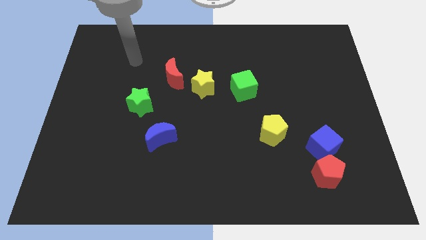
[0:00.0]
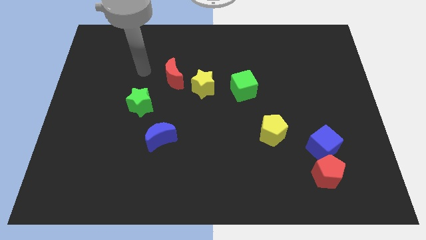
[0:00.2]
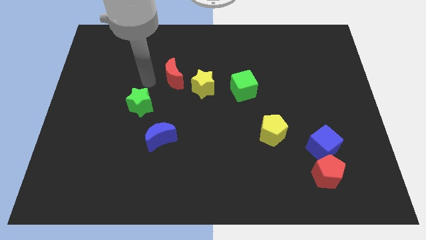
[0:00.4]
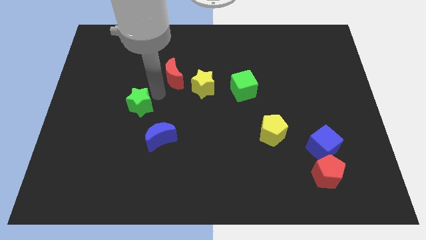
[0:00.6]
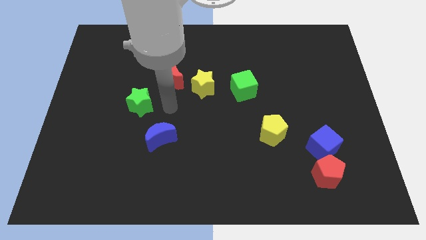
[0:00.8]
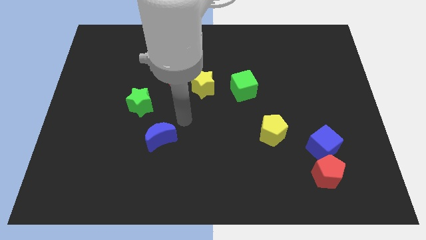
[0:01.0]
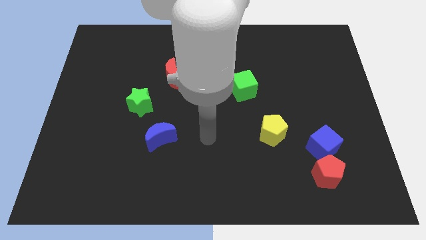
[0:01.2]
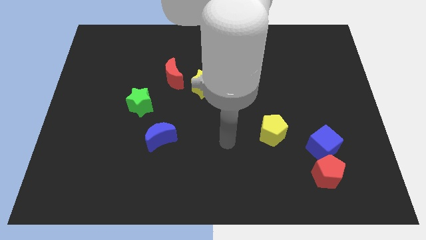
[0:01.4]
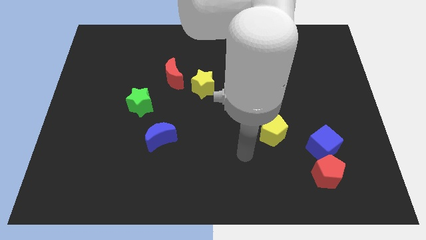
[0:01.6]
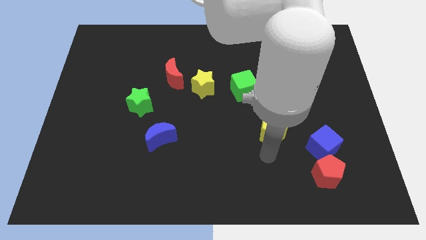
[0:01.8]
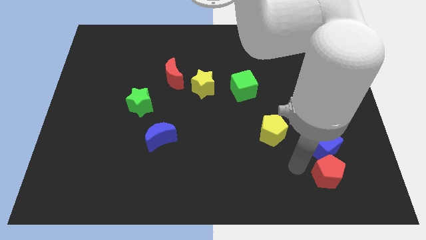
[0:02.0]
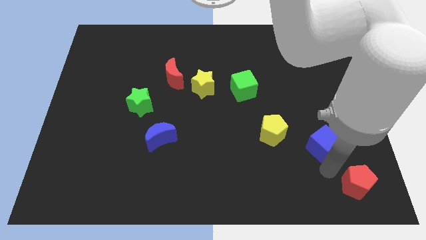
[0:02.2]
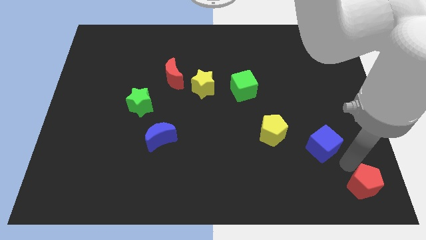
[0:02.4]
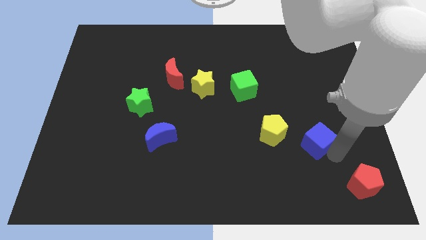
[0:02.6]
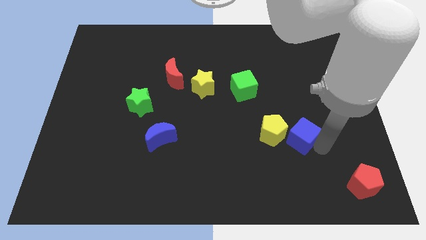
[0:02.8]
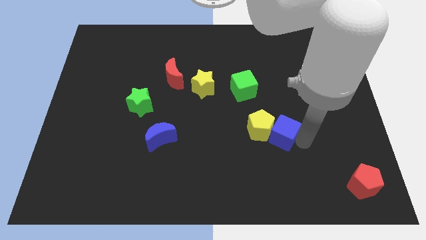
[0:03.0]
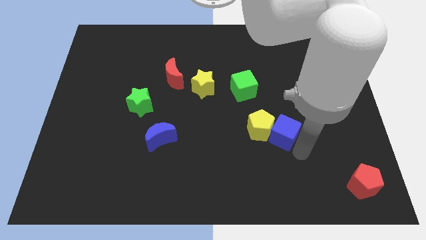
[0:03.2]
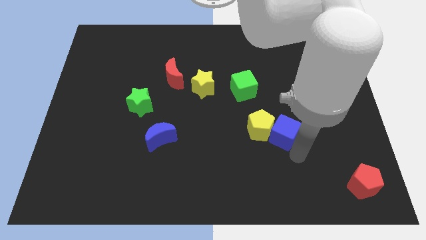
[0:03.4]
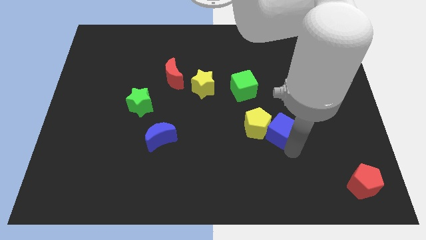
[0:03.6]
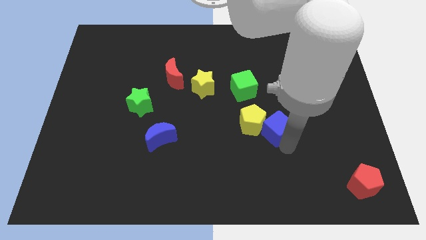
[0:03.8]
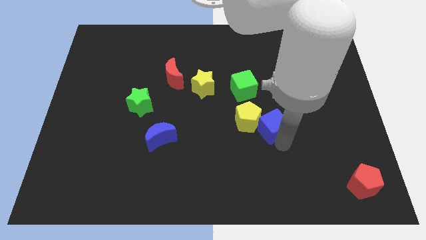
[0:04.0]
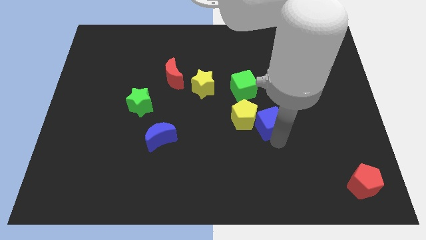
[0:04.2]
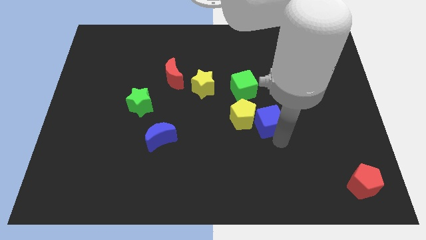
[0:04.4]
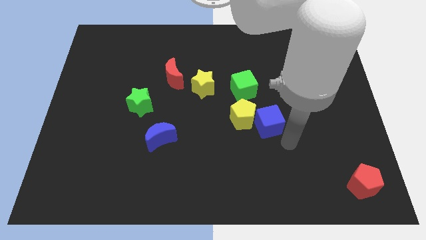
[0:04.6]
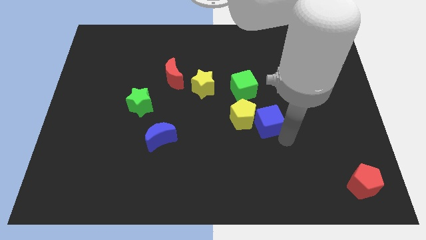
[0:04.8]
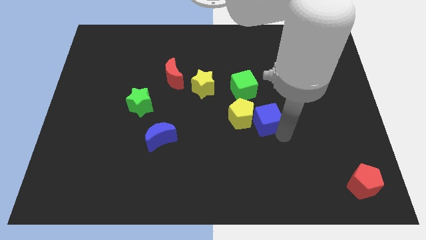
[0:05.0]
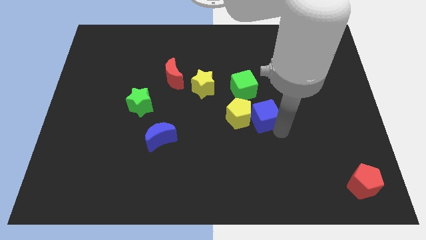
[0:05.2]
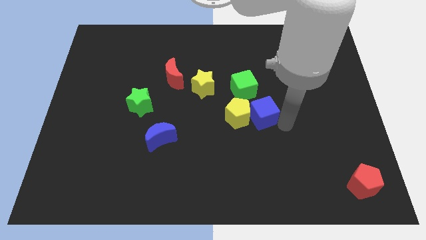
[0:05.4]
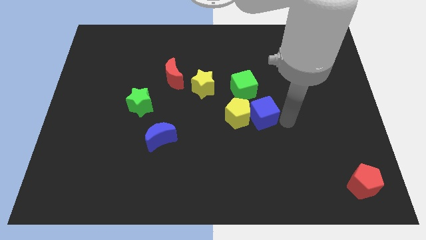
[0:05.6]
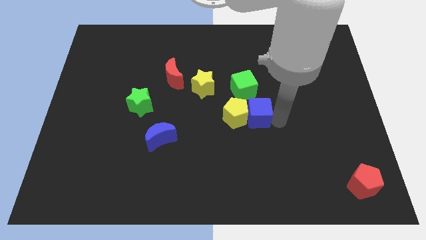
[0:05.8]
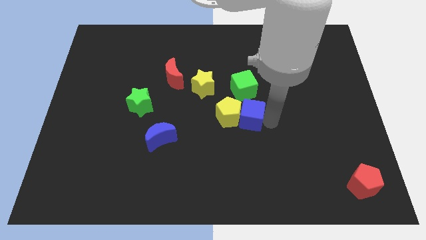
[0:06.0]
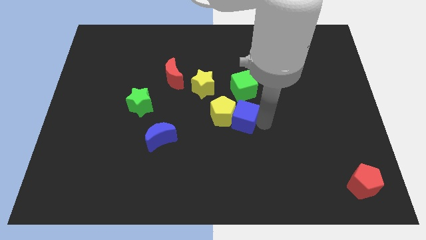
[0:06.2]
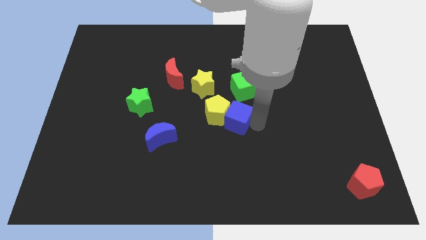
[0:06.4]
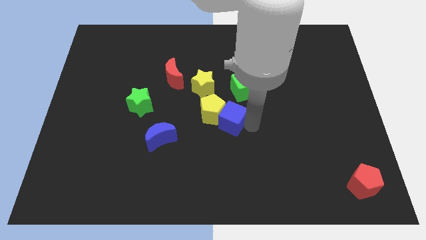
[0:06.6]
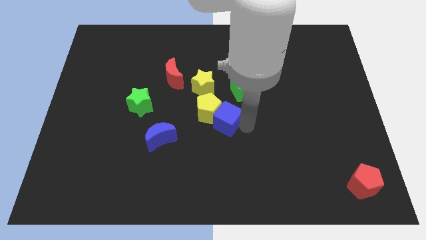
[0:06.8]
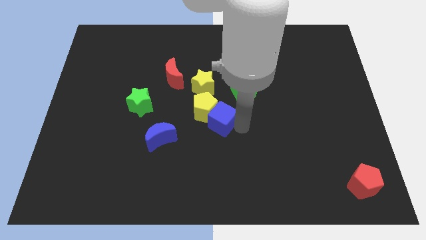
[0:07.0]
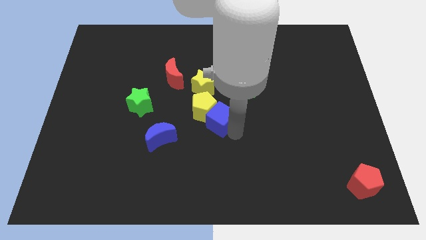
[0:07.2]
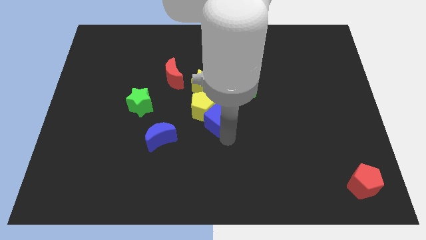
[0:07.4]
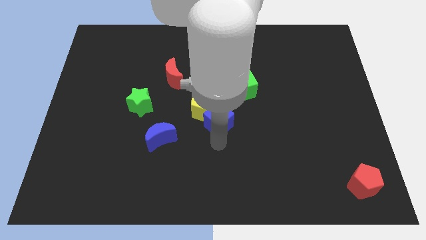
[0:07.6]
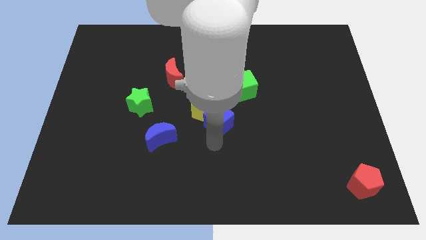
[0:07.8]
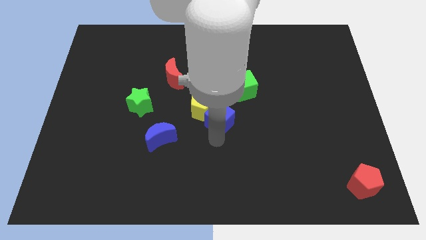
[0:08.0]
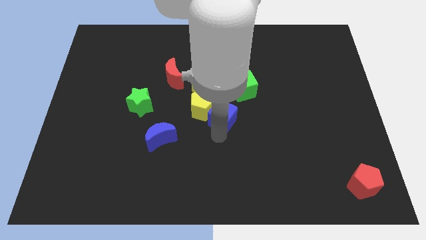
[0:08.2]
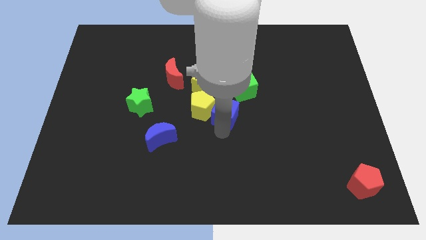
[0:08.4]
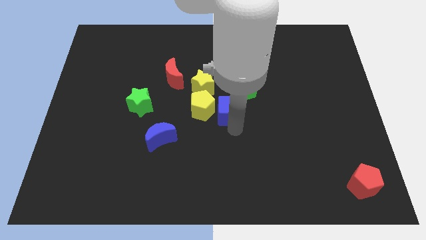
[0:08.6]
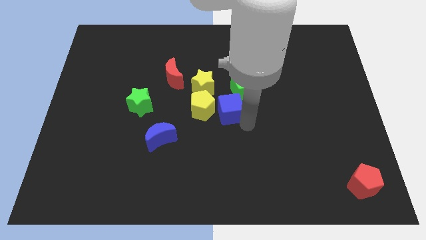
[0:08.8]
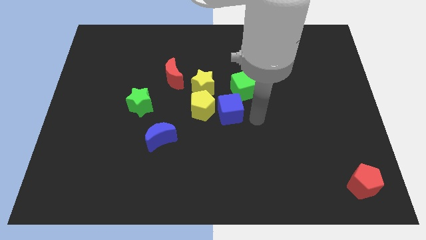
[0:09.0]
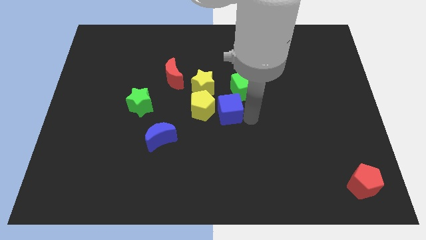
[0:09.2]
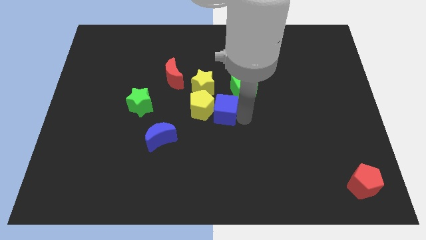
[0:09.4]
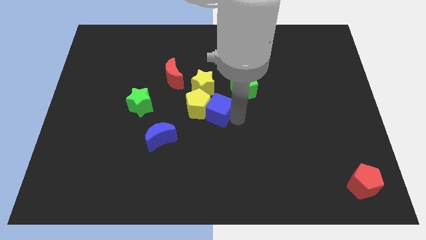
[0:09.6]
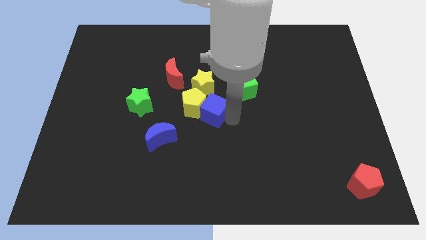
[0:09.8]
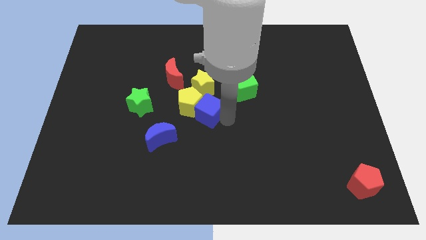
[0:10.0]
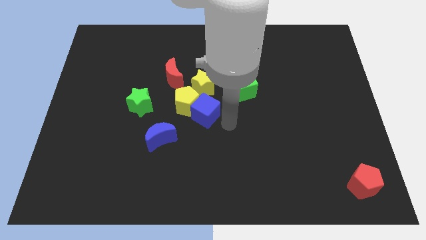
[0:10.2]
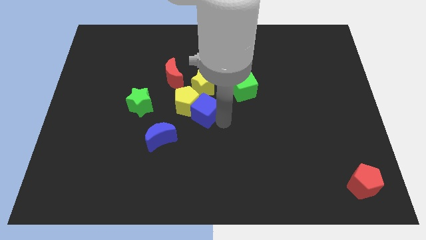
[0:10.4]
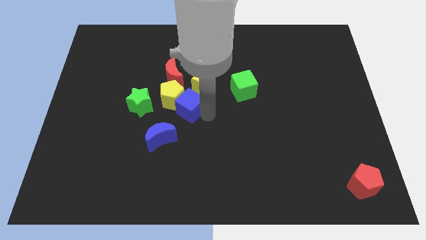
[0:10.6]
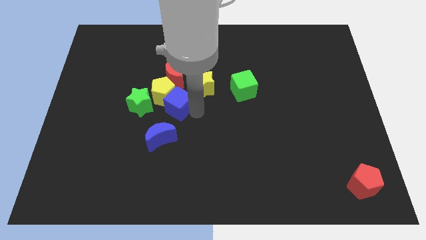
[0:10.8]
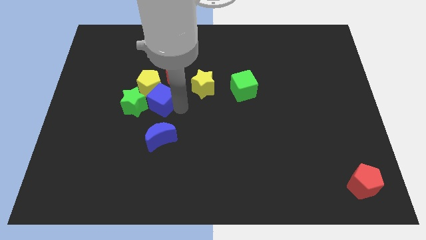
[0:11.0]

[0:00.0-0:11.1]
slide the blue cube to the bottom left of the red moon

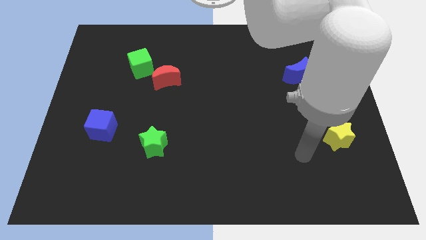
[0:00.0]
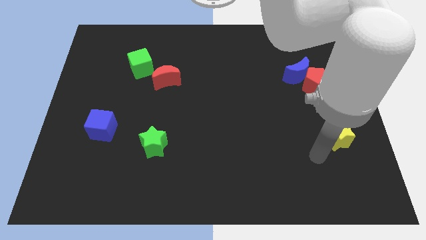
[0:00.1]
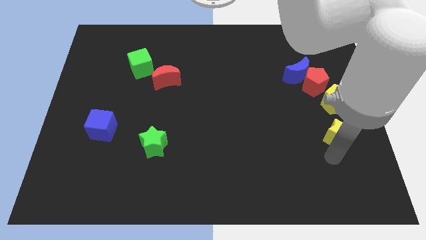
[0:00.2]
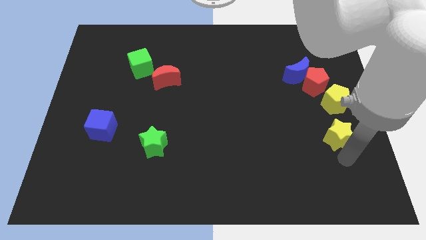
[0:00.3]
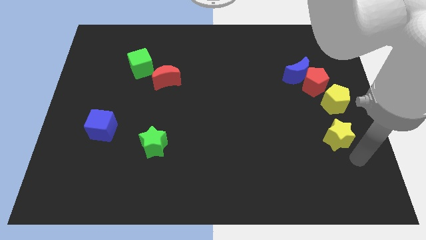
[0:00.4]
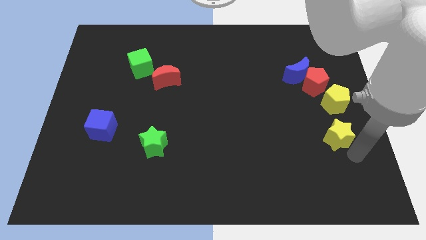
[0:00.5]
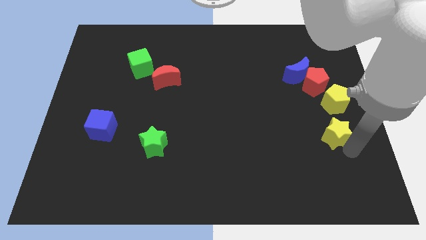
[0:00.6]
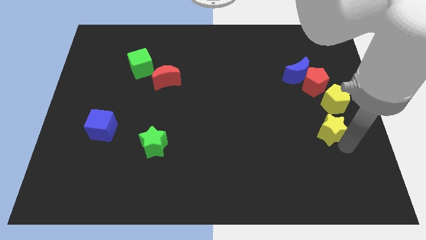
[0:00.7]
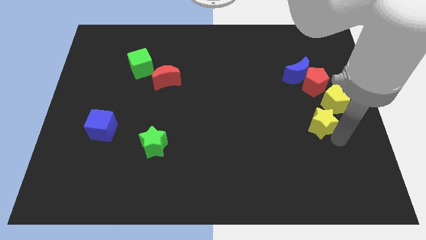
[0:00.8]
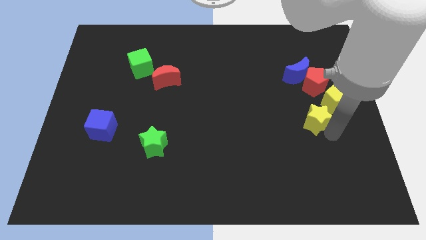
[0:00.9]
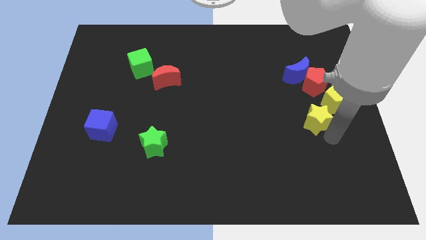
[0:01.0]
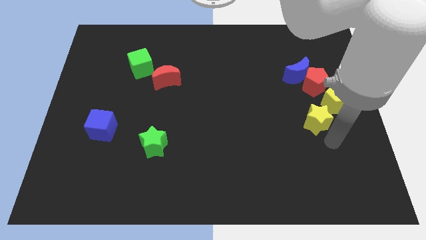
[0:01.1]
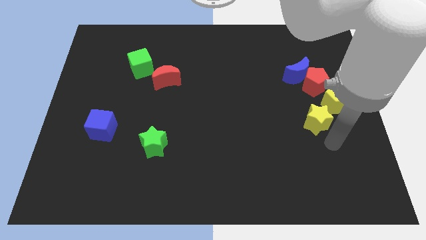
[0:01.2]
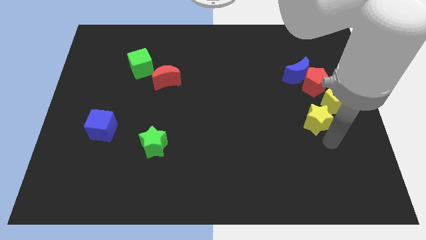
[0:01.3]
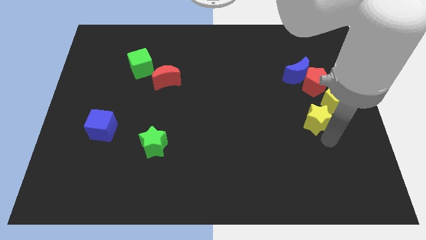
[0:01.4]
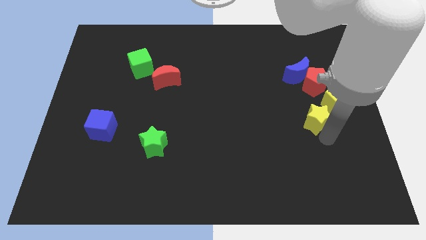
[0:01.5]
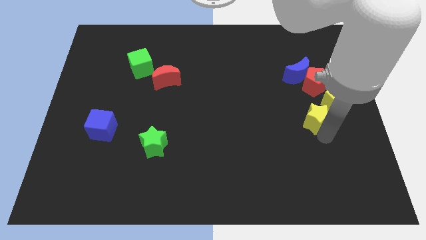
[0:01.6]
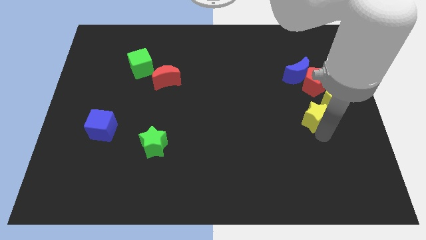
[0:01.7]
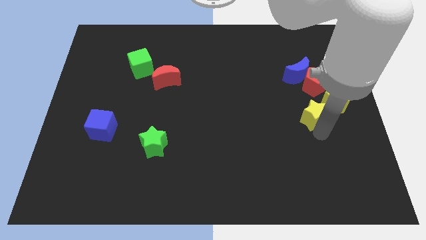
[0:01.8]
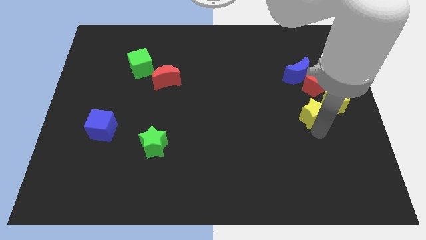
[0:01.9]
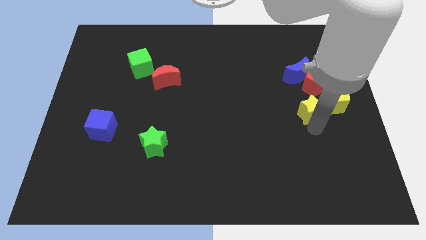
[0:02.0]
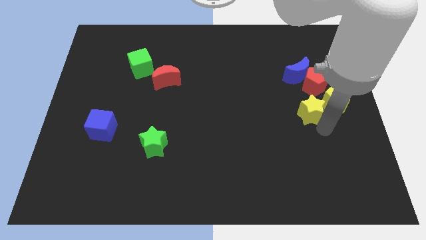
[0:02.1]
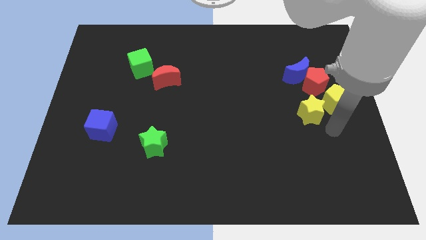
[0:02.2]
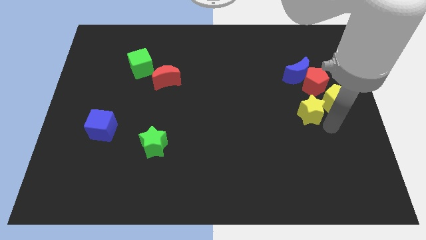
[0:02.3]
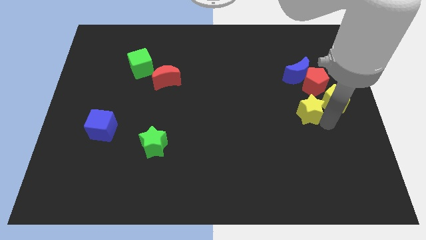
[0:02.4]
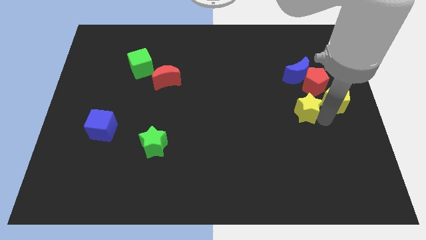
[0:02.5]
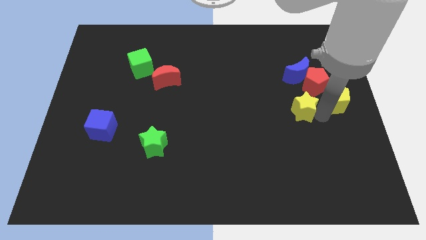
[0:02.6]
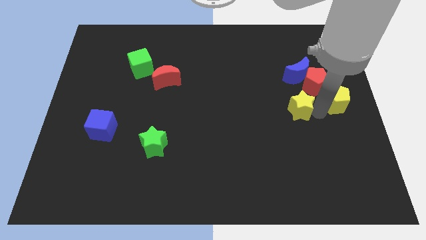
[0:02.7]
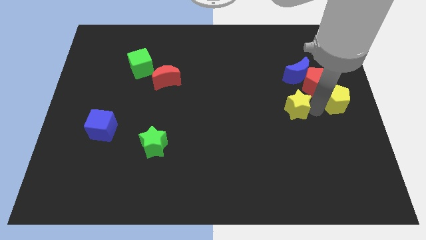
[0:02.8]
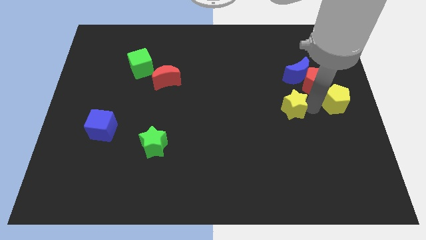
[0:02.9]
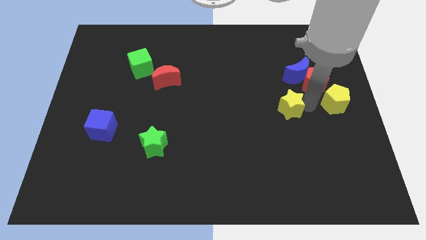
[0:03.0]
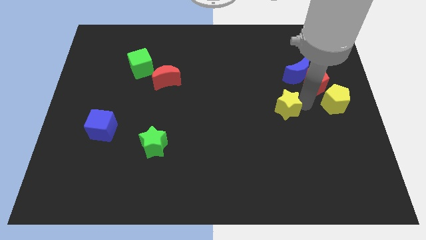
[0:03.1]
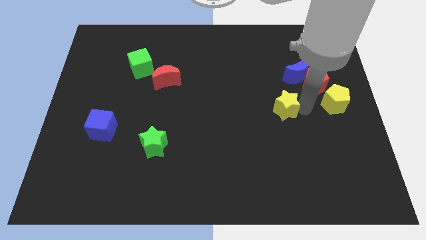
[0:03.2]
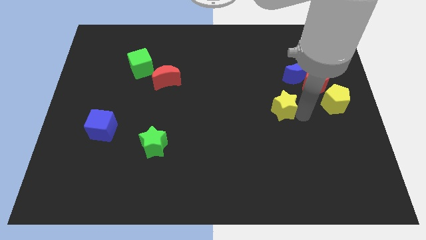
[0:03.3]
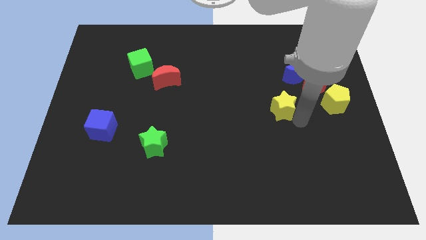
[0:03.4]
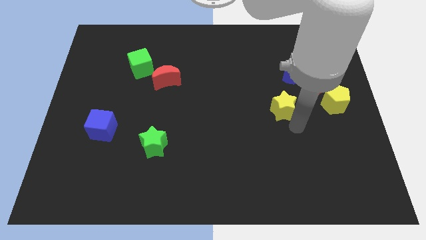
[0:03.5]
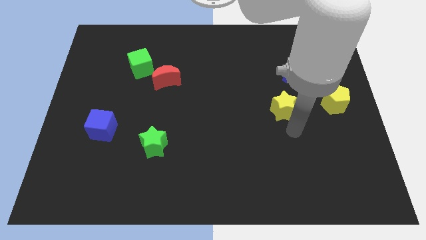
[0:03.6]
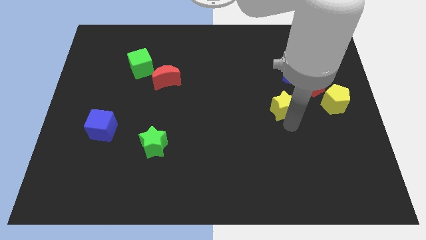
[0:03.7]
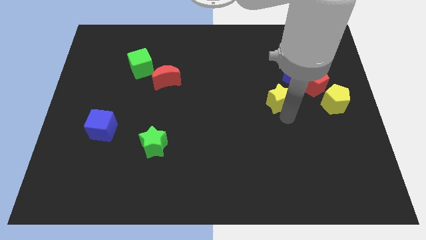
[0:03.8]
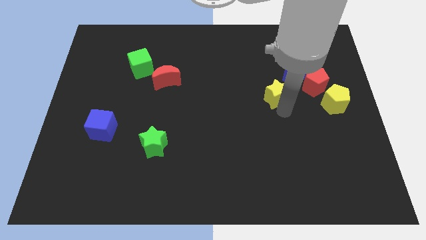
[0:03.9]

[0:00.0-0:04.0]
put the yellow star left of the red pentagon
